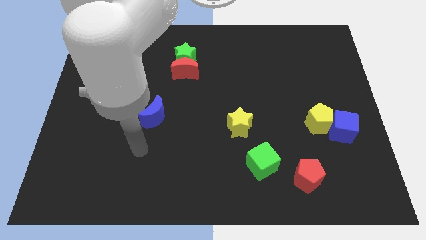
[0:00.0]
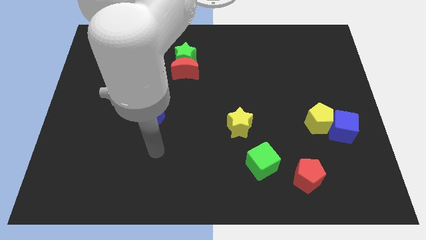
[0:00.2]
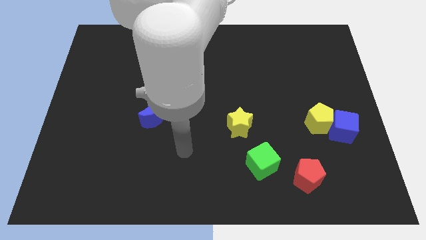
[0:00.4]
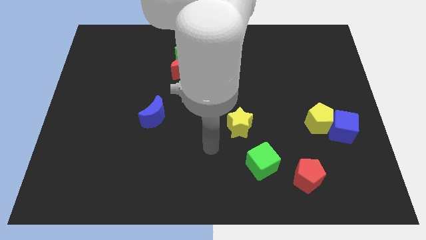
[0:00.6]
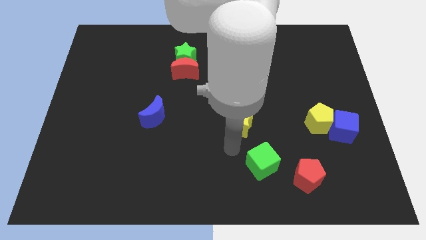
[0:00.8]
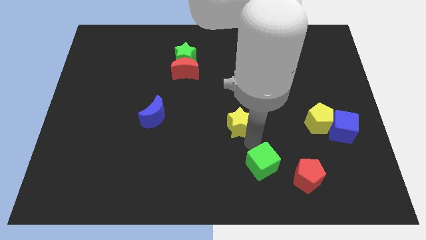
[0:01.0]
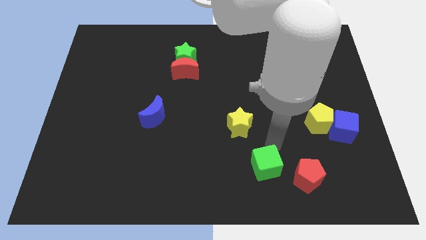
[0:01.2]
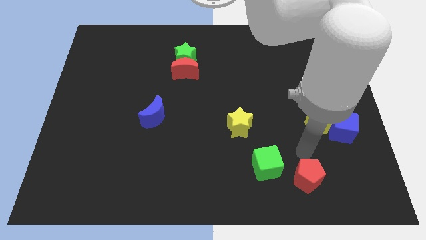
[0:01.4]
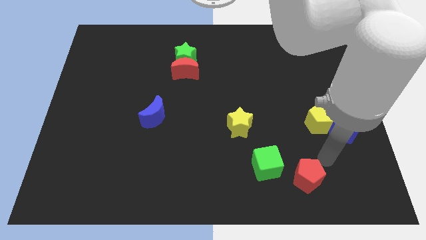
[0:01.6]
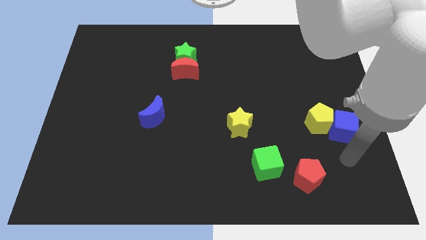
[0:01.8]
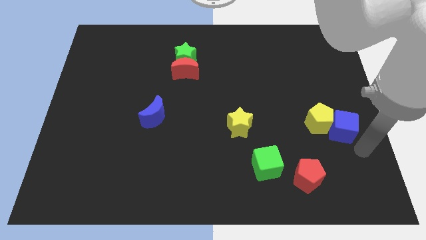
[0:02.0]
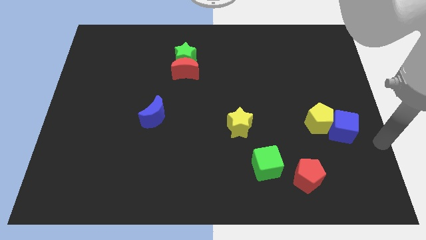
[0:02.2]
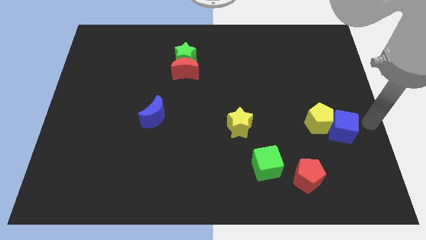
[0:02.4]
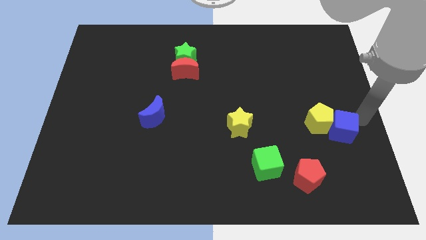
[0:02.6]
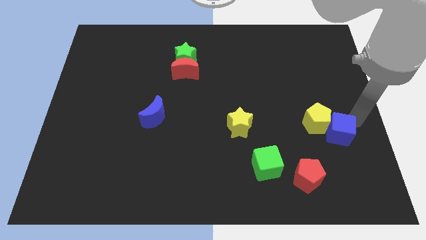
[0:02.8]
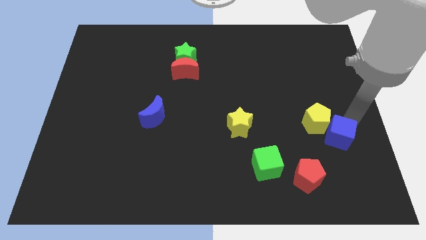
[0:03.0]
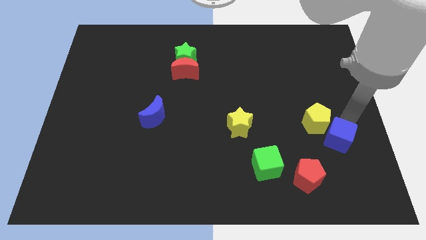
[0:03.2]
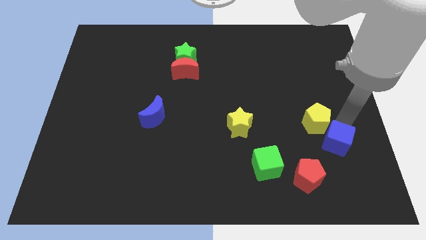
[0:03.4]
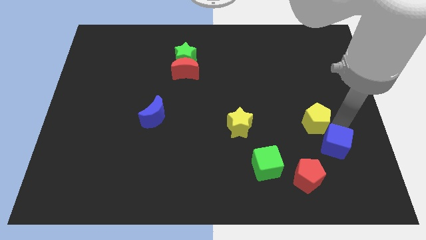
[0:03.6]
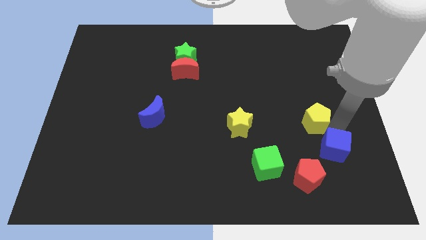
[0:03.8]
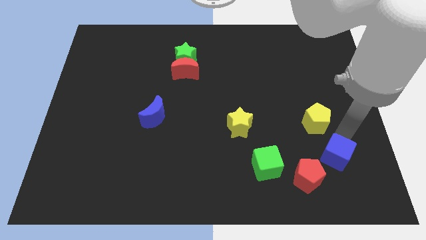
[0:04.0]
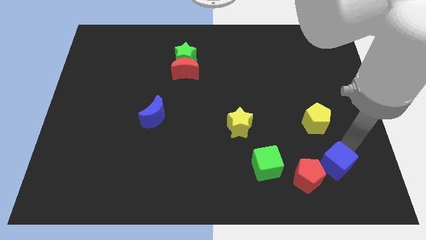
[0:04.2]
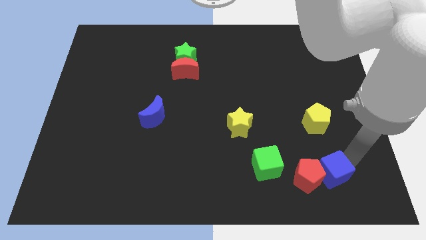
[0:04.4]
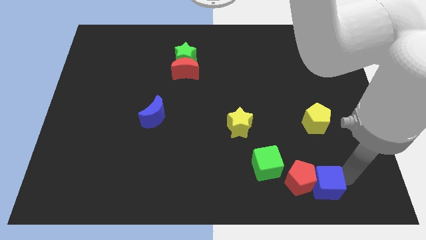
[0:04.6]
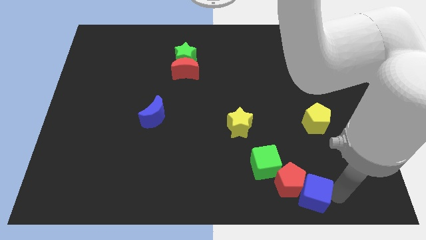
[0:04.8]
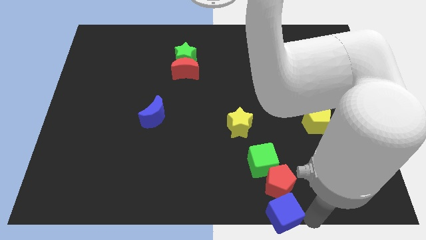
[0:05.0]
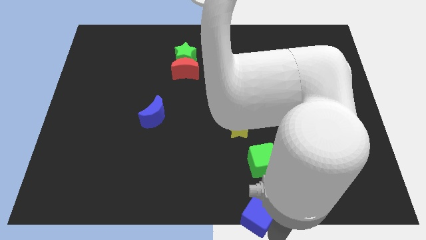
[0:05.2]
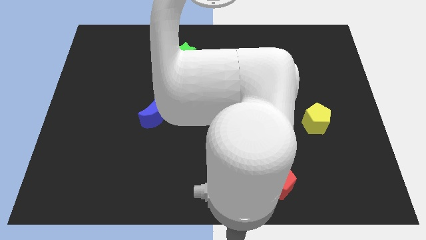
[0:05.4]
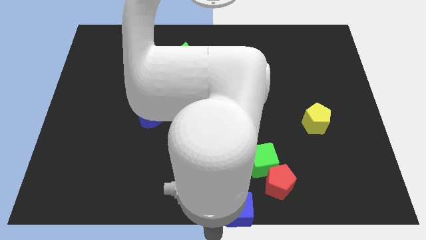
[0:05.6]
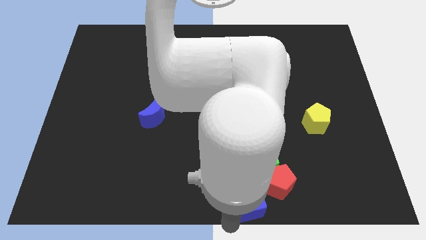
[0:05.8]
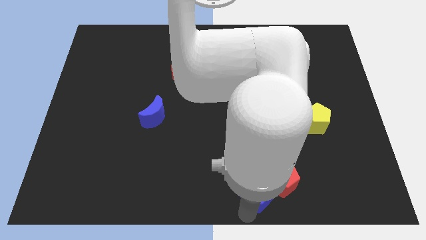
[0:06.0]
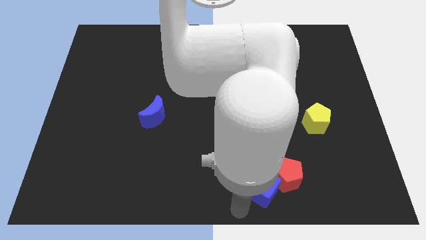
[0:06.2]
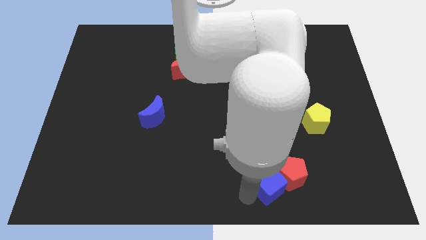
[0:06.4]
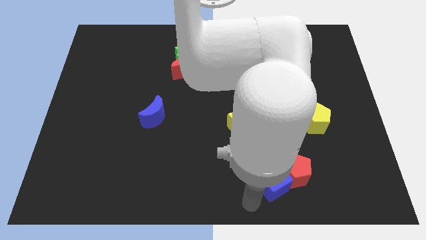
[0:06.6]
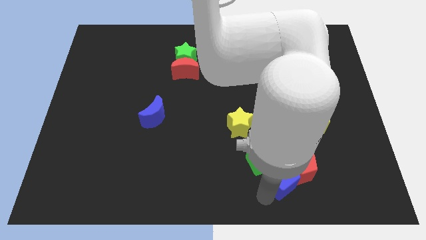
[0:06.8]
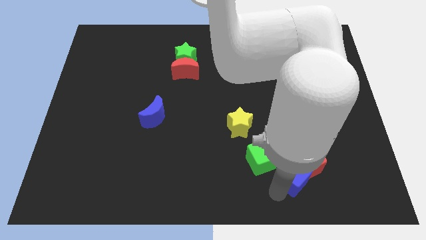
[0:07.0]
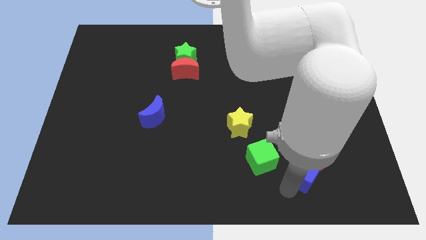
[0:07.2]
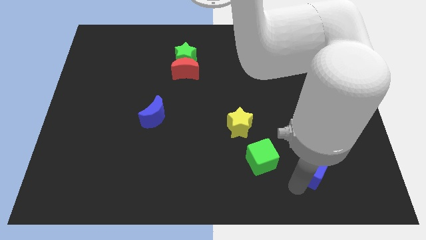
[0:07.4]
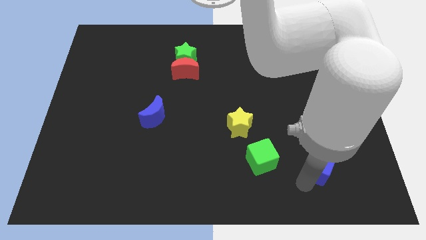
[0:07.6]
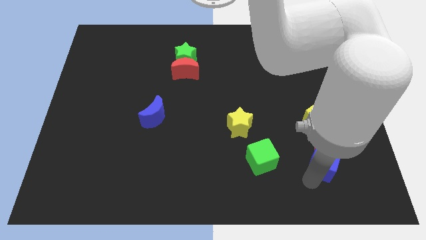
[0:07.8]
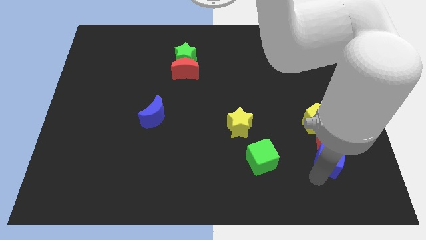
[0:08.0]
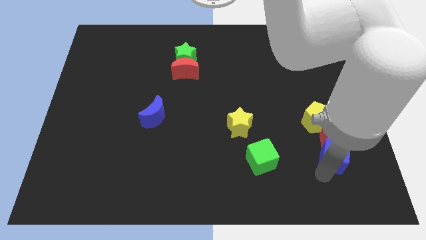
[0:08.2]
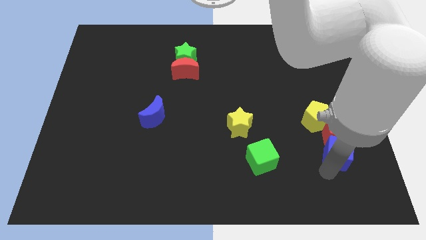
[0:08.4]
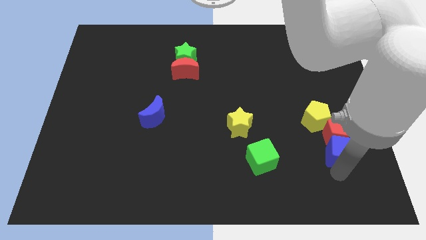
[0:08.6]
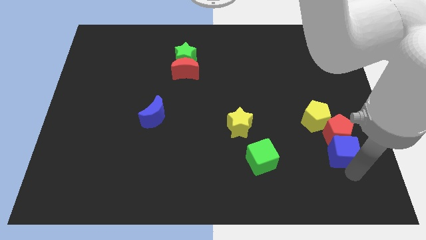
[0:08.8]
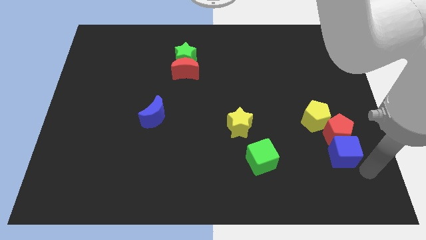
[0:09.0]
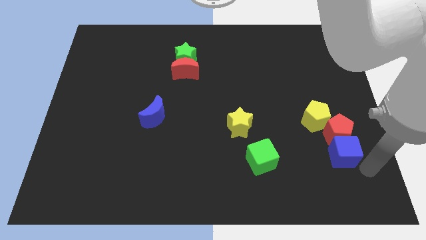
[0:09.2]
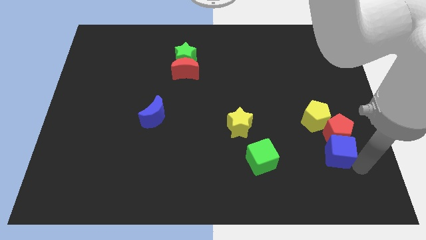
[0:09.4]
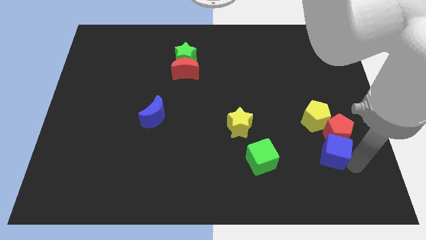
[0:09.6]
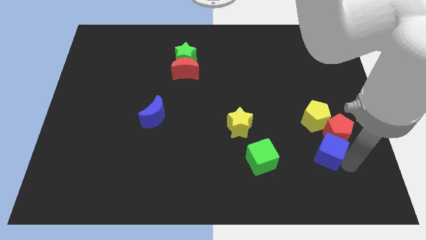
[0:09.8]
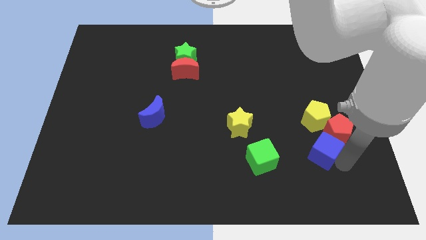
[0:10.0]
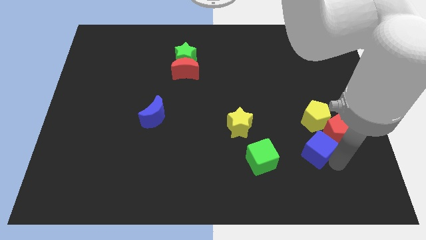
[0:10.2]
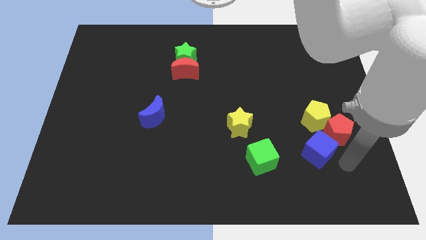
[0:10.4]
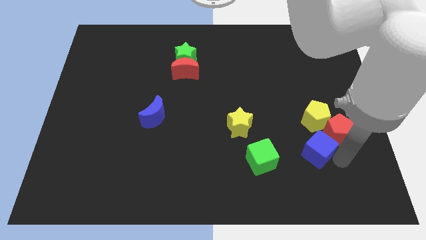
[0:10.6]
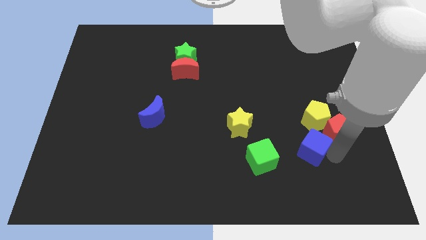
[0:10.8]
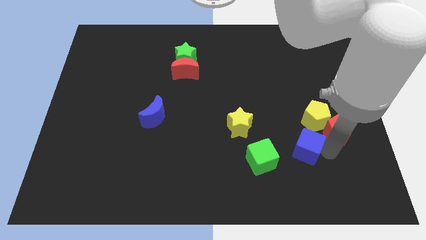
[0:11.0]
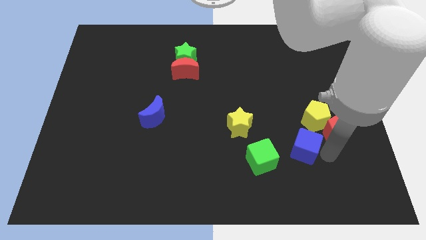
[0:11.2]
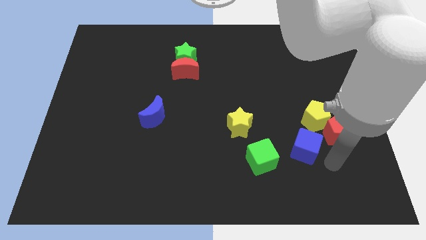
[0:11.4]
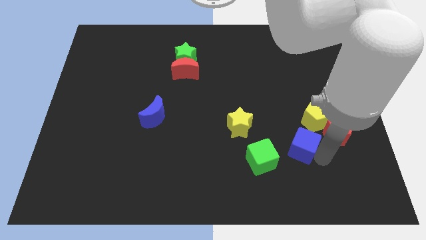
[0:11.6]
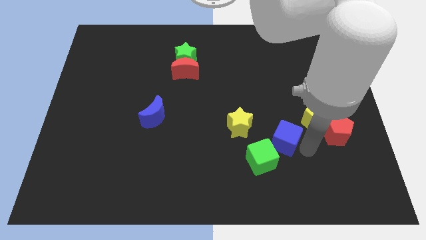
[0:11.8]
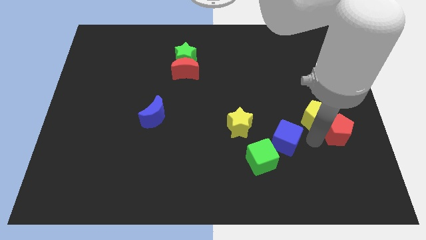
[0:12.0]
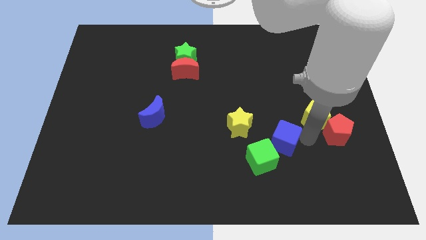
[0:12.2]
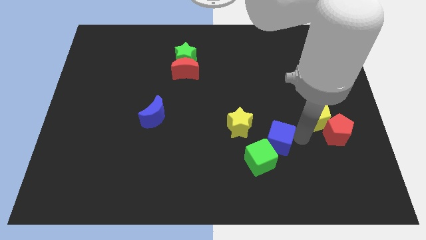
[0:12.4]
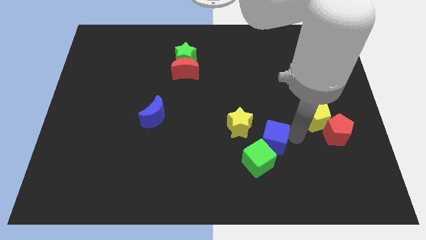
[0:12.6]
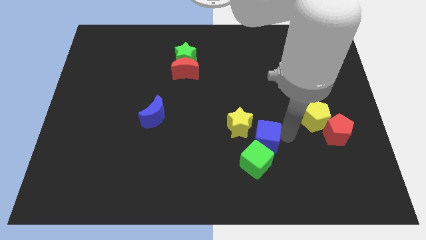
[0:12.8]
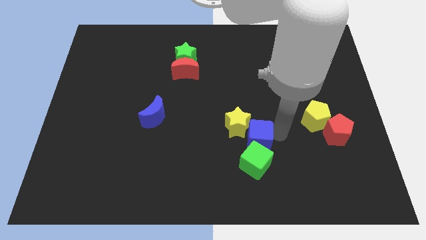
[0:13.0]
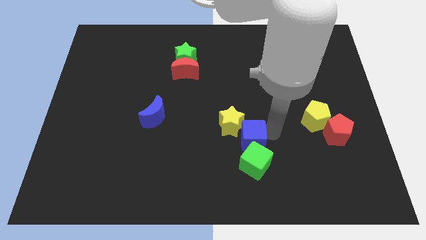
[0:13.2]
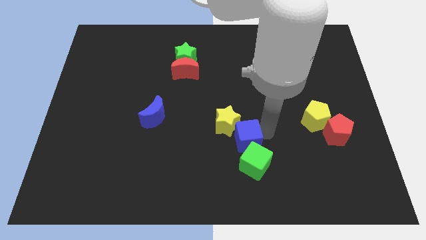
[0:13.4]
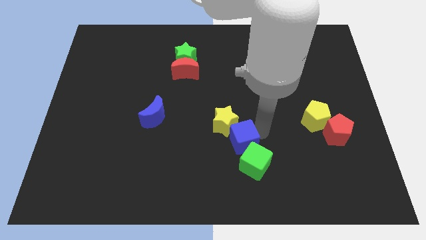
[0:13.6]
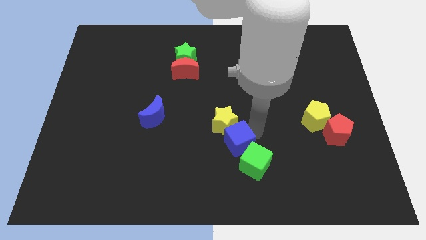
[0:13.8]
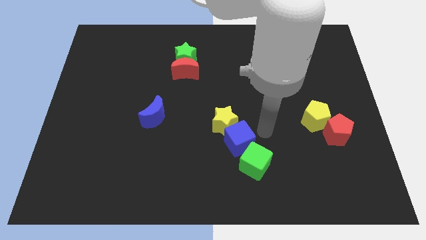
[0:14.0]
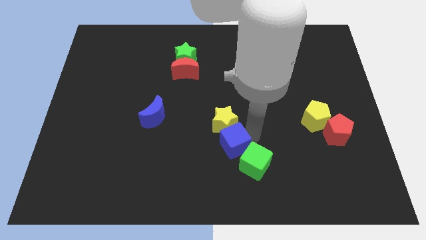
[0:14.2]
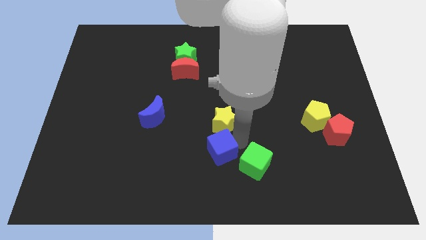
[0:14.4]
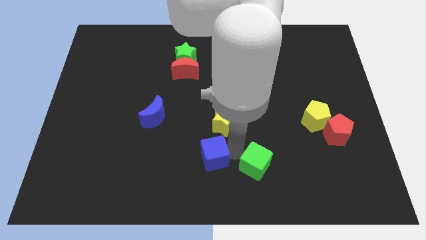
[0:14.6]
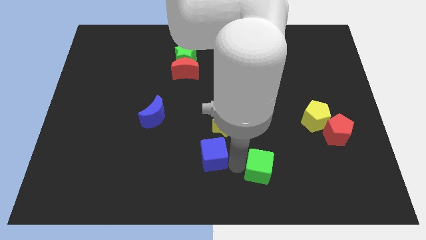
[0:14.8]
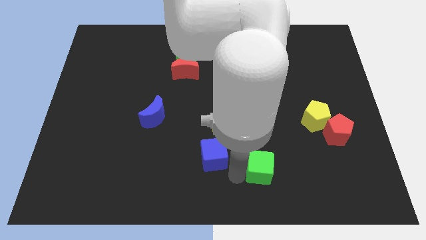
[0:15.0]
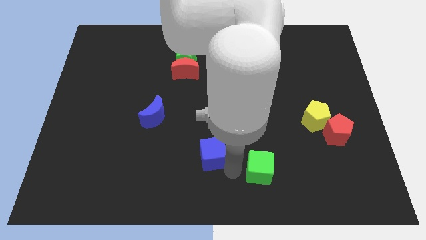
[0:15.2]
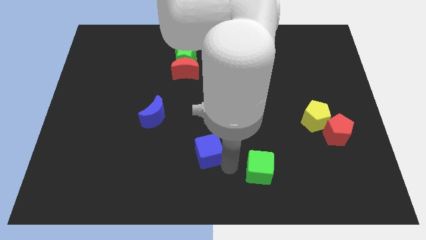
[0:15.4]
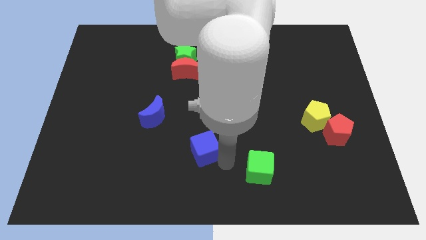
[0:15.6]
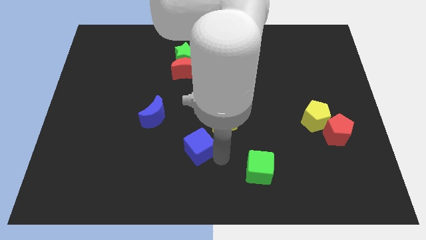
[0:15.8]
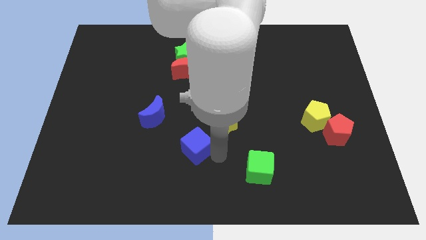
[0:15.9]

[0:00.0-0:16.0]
push the blue cube to the bottom right of the blue moon
